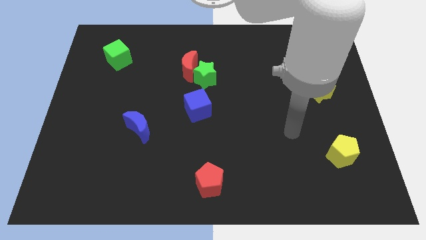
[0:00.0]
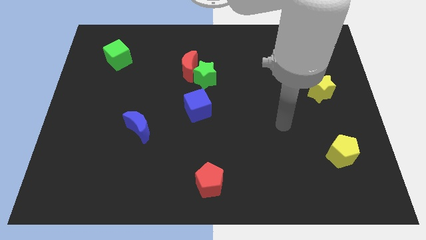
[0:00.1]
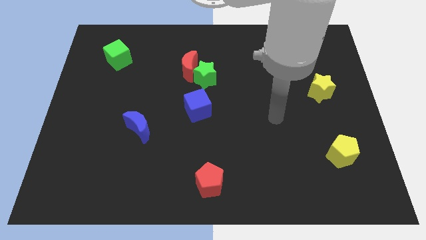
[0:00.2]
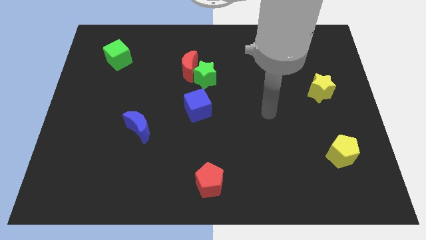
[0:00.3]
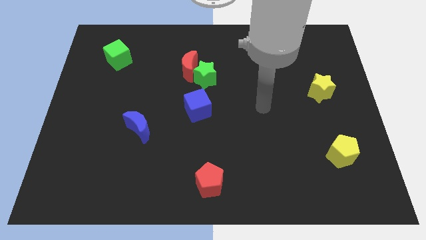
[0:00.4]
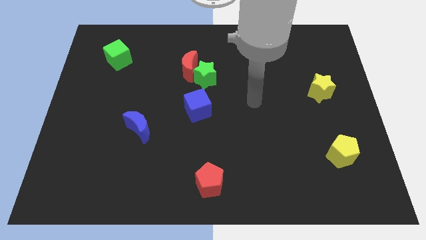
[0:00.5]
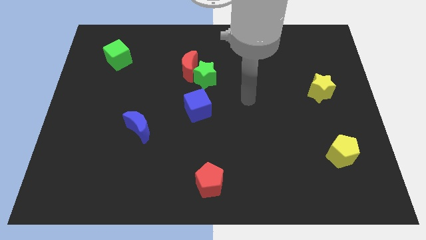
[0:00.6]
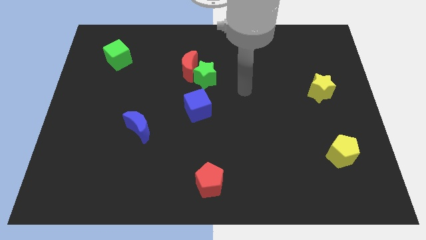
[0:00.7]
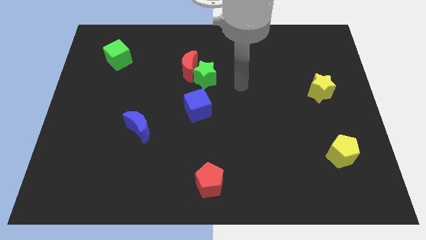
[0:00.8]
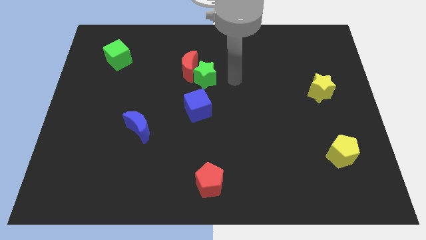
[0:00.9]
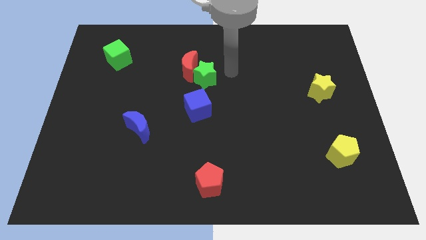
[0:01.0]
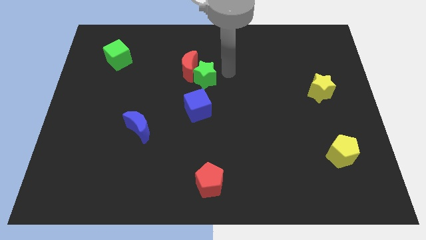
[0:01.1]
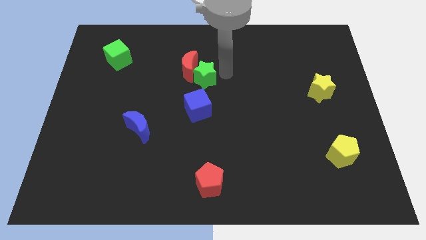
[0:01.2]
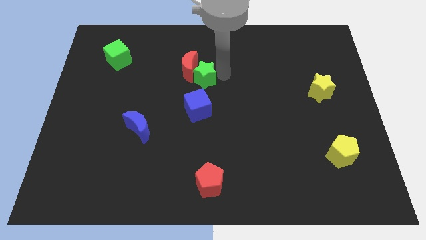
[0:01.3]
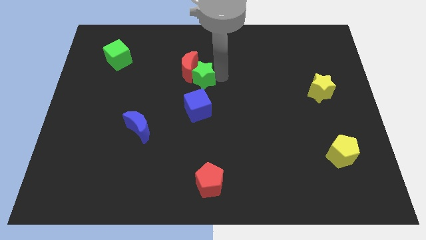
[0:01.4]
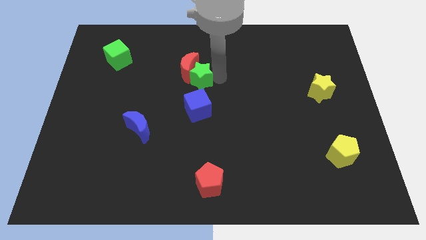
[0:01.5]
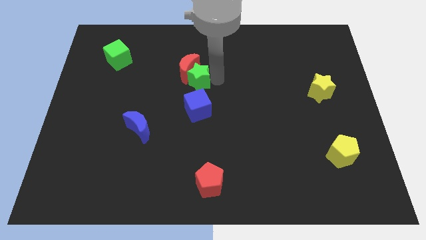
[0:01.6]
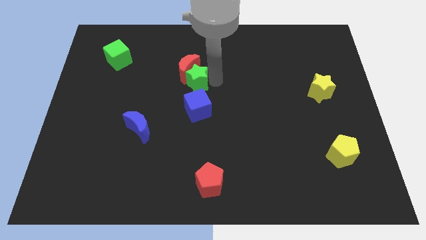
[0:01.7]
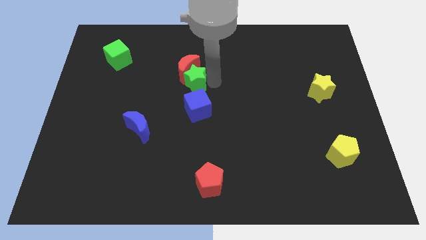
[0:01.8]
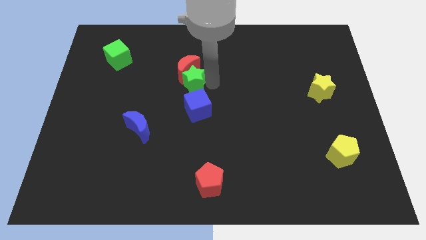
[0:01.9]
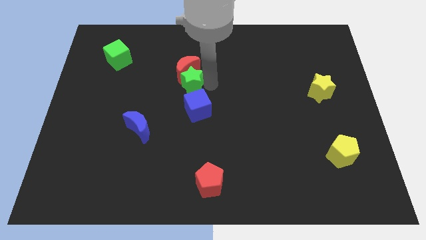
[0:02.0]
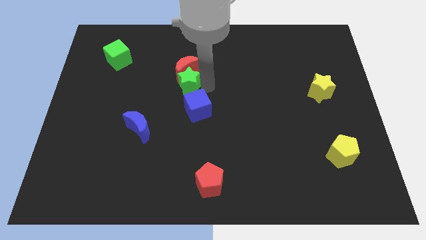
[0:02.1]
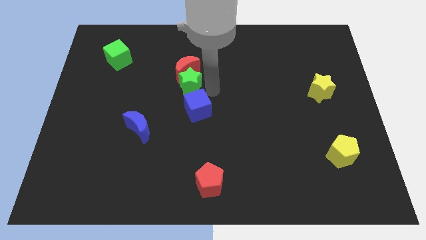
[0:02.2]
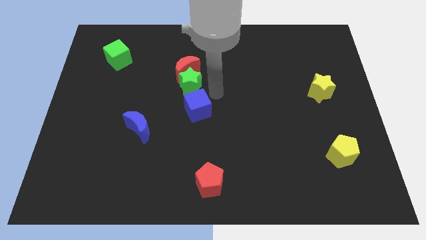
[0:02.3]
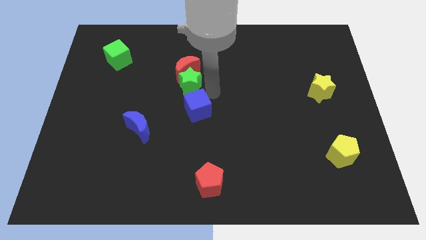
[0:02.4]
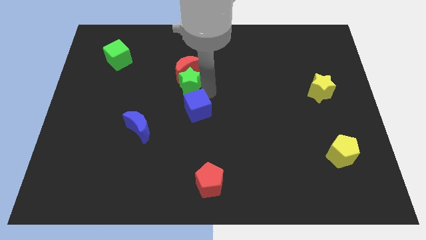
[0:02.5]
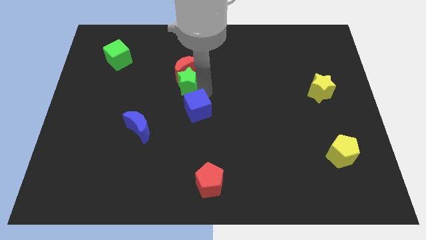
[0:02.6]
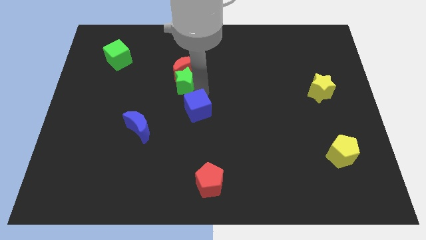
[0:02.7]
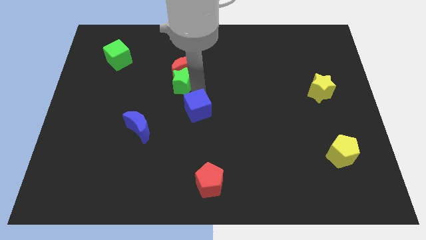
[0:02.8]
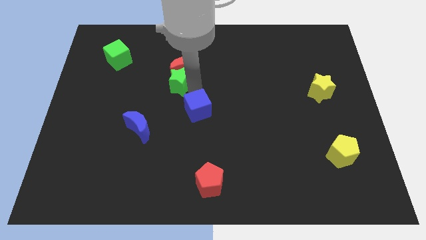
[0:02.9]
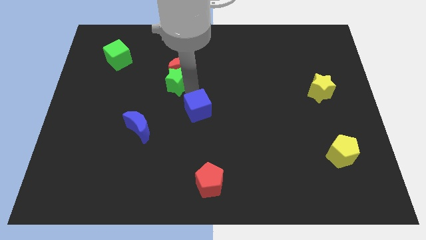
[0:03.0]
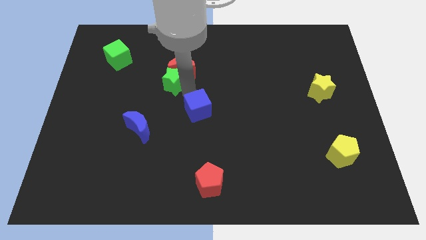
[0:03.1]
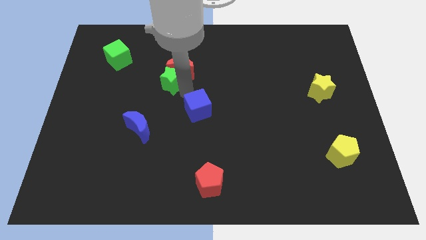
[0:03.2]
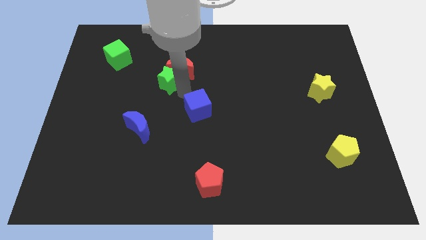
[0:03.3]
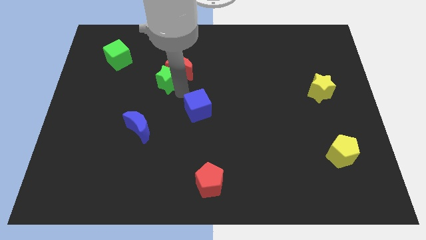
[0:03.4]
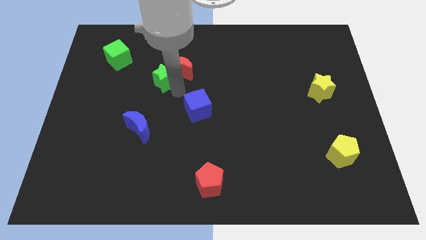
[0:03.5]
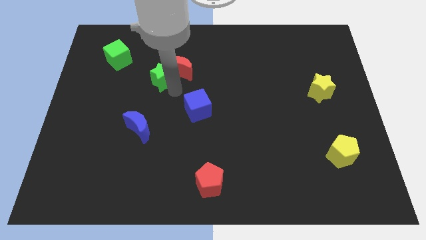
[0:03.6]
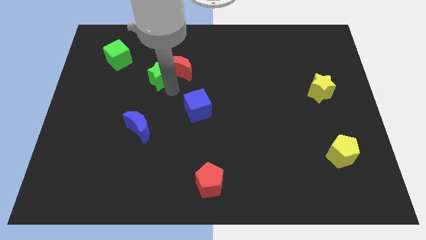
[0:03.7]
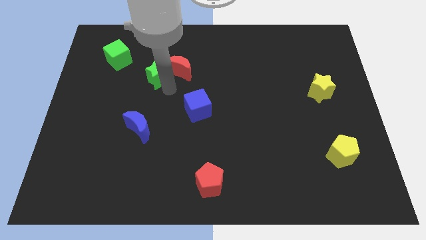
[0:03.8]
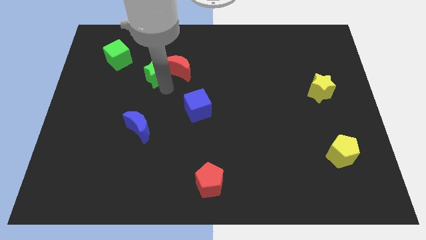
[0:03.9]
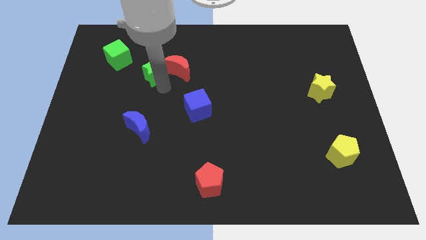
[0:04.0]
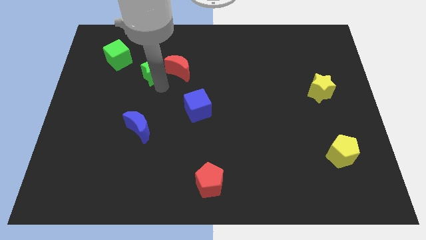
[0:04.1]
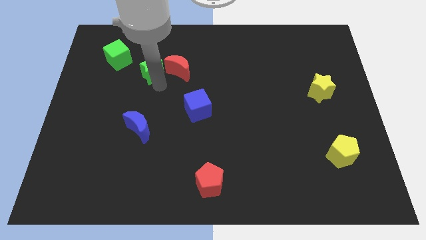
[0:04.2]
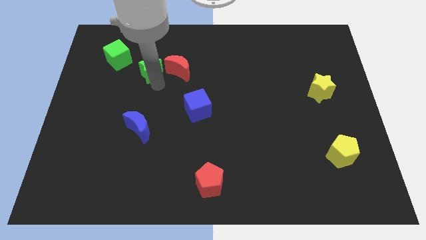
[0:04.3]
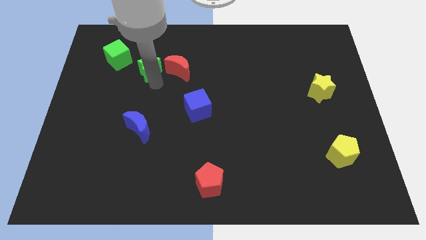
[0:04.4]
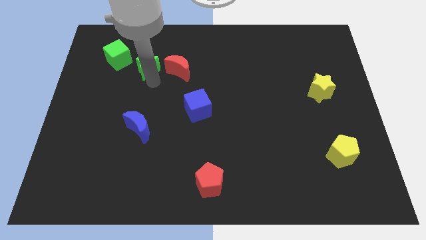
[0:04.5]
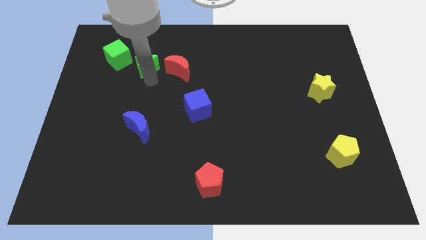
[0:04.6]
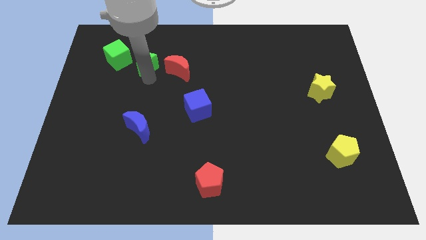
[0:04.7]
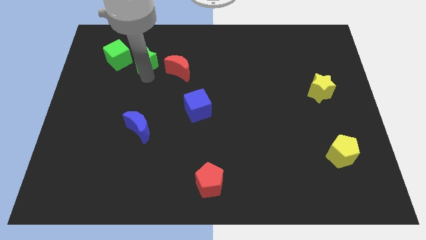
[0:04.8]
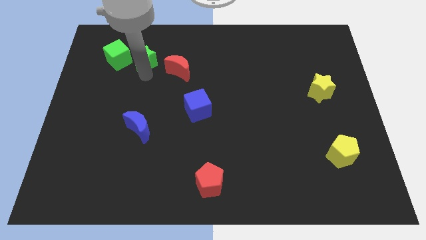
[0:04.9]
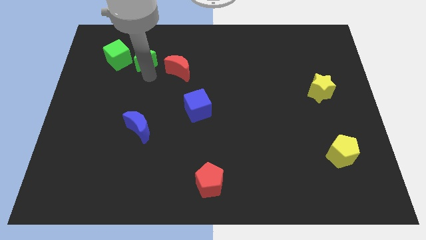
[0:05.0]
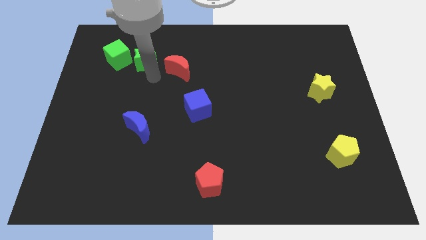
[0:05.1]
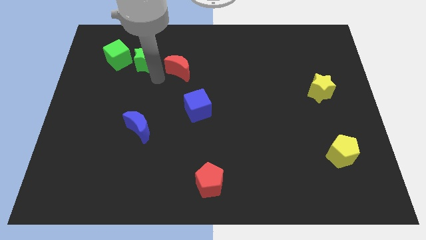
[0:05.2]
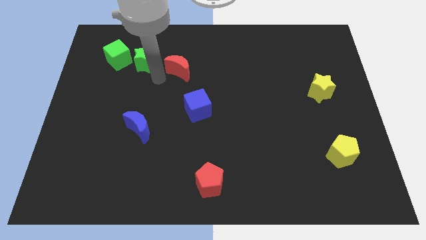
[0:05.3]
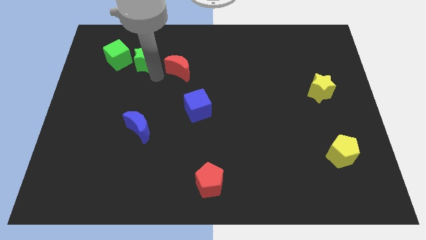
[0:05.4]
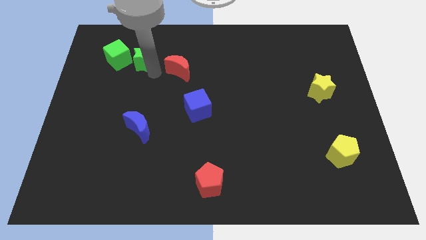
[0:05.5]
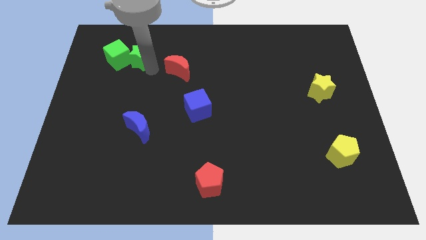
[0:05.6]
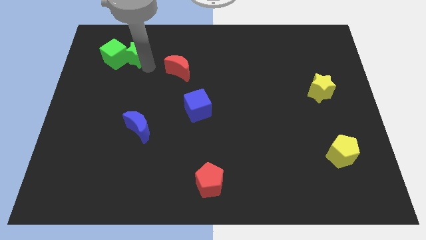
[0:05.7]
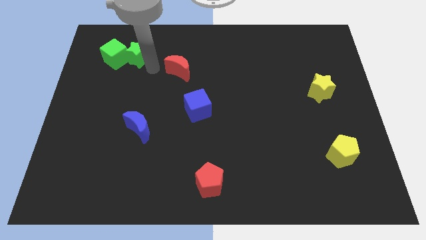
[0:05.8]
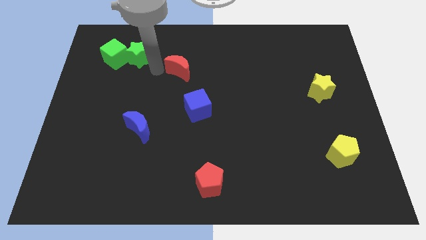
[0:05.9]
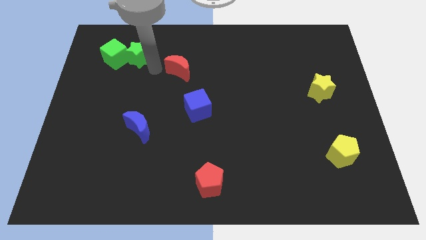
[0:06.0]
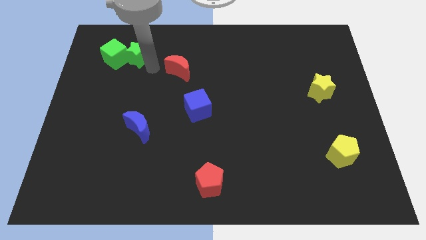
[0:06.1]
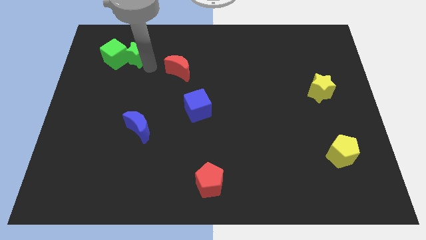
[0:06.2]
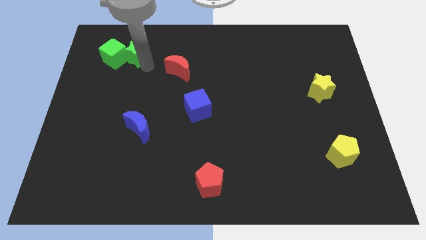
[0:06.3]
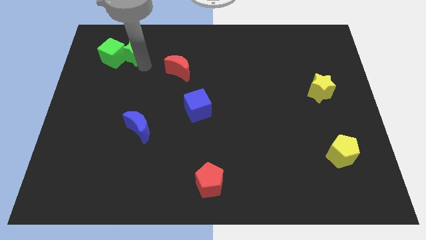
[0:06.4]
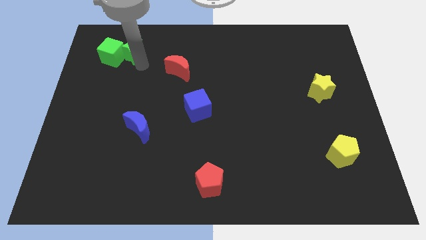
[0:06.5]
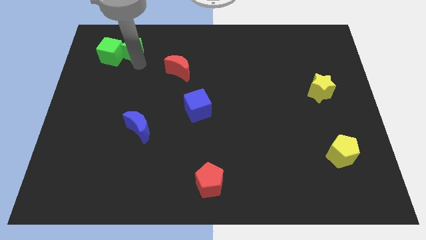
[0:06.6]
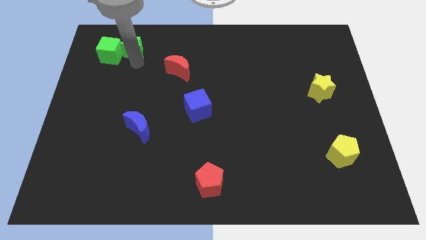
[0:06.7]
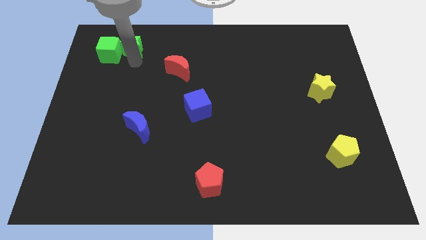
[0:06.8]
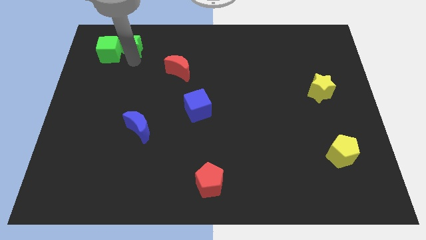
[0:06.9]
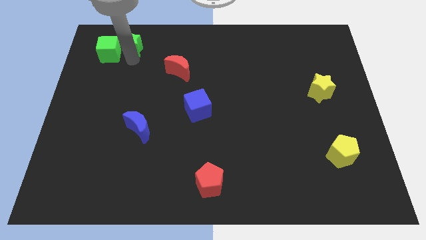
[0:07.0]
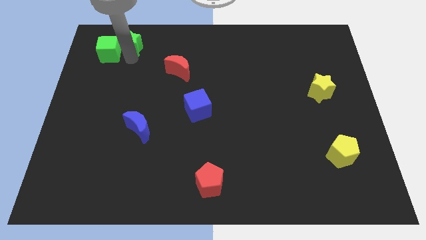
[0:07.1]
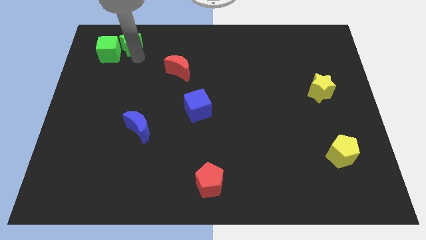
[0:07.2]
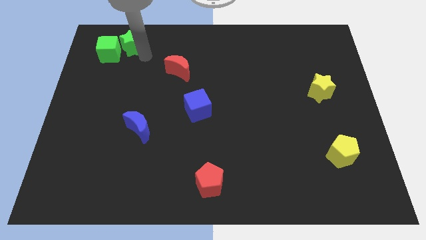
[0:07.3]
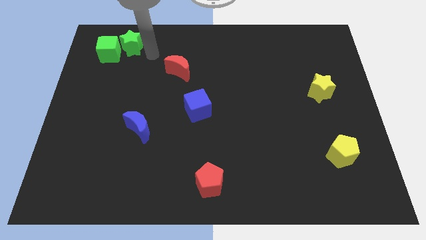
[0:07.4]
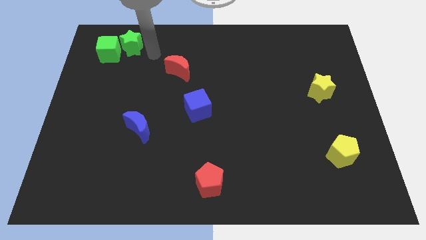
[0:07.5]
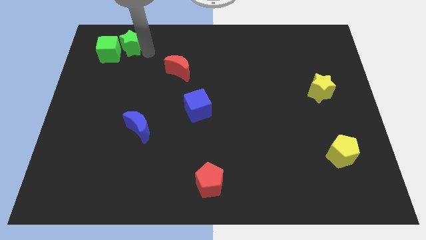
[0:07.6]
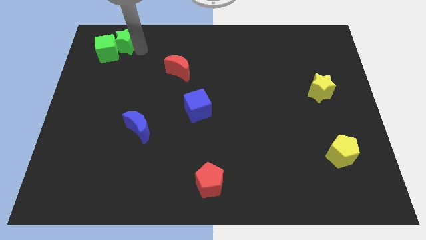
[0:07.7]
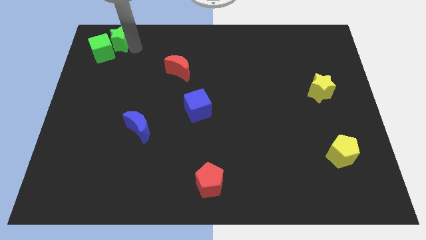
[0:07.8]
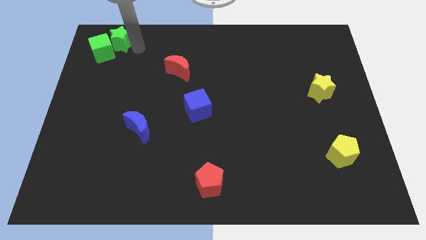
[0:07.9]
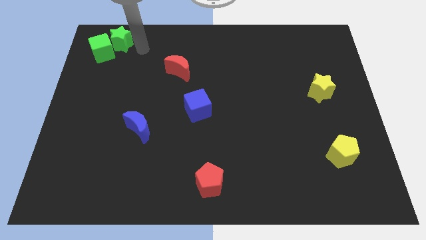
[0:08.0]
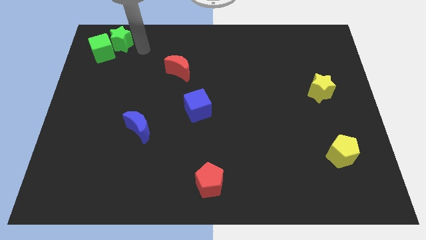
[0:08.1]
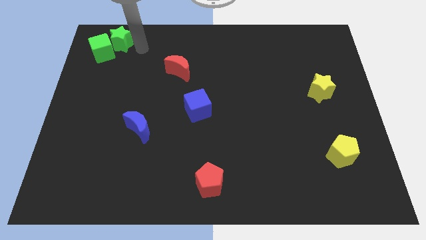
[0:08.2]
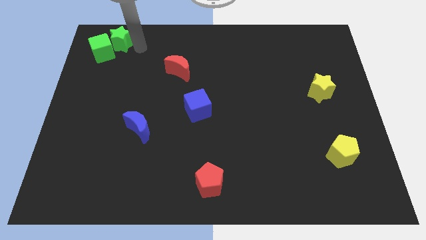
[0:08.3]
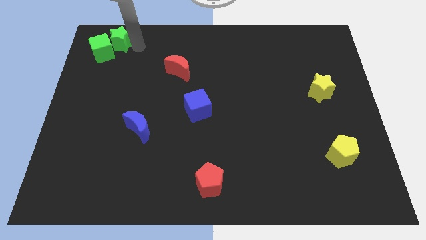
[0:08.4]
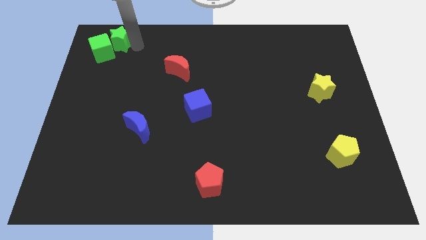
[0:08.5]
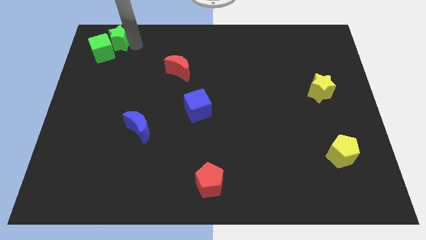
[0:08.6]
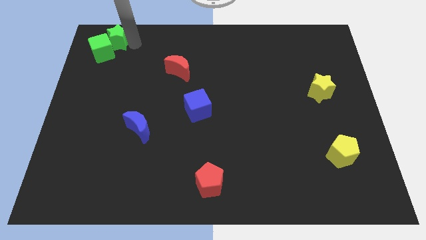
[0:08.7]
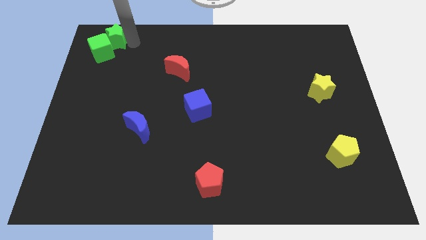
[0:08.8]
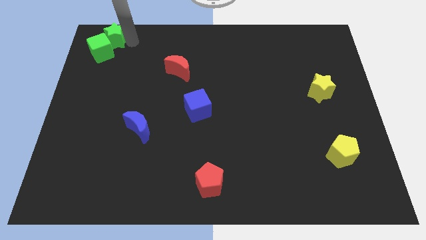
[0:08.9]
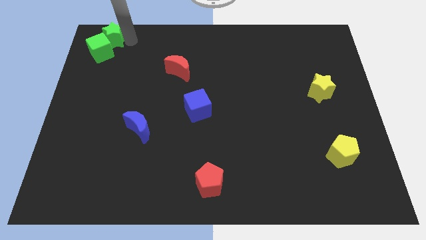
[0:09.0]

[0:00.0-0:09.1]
slide the green star to the top left corner
